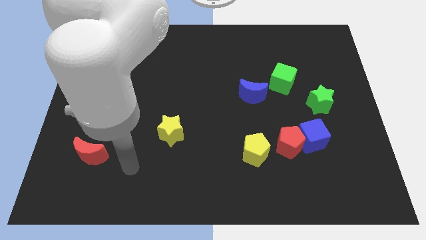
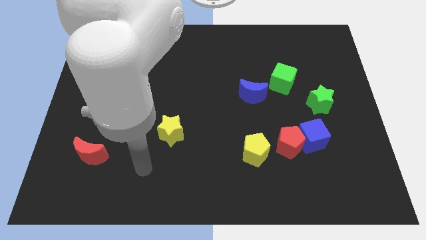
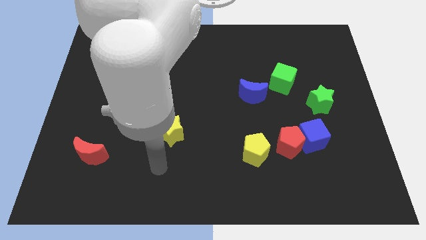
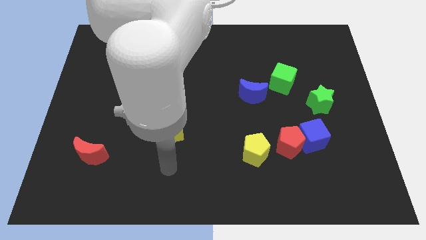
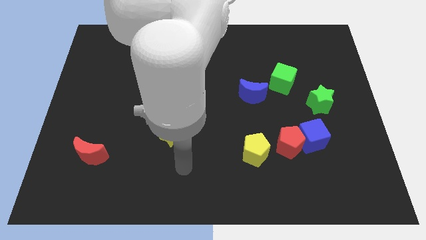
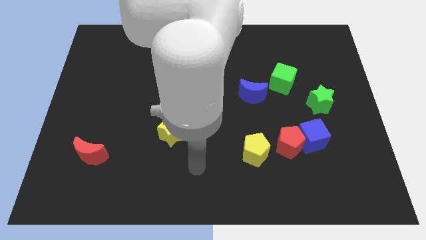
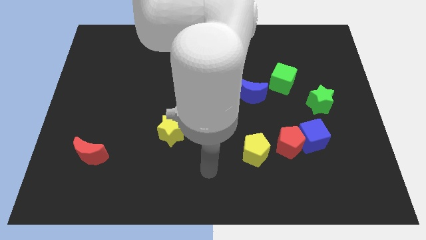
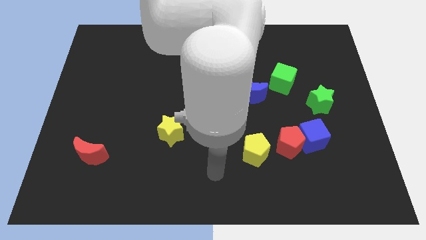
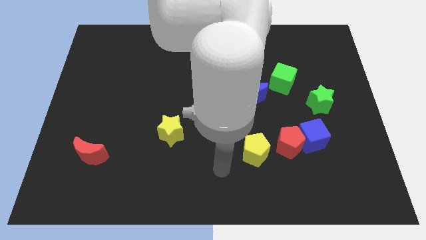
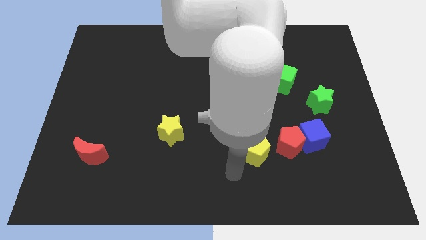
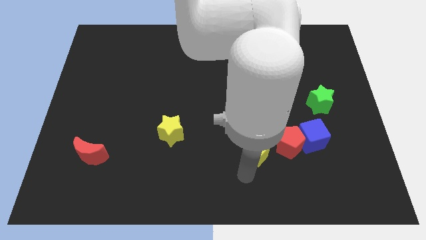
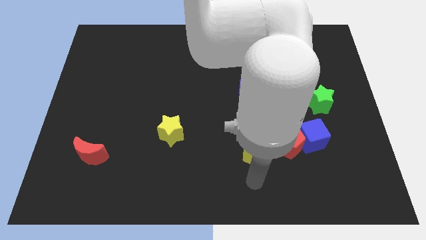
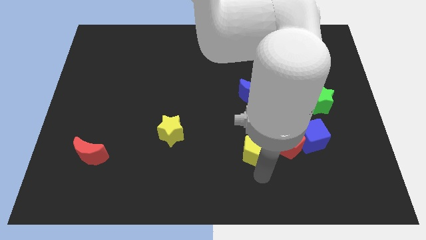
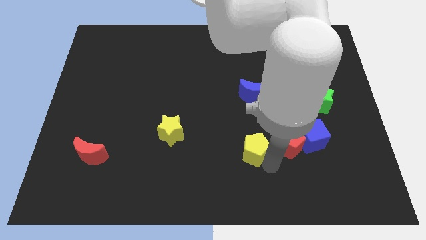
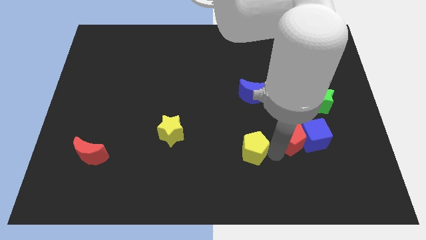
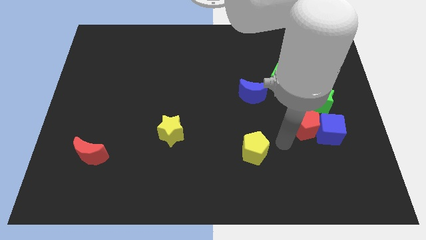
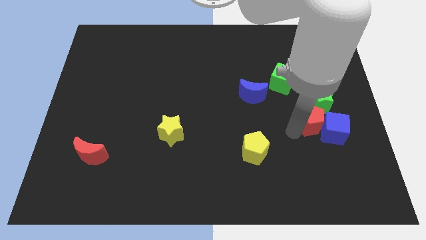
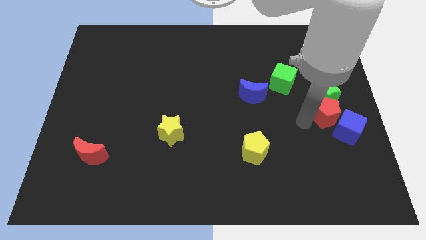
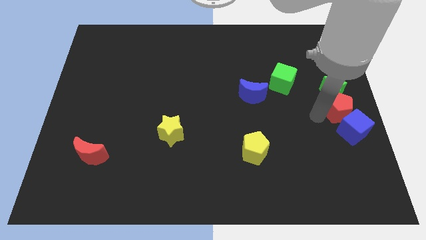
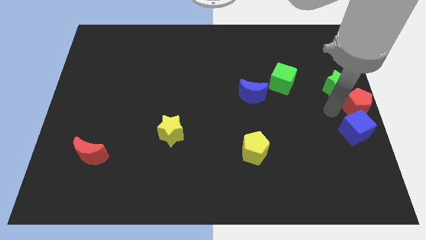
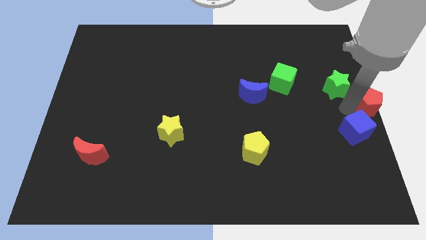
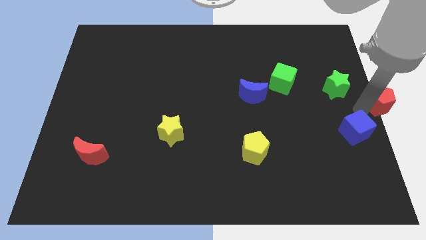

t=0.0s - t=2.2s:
pull the blue cube apart from the red pentagon

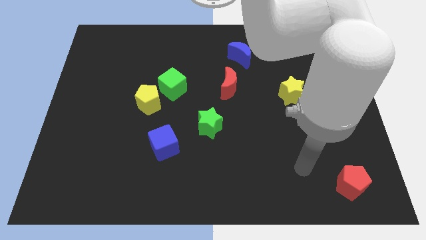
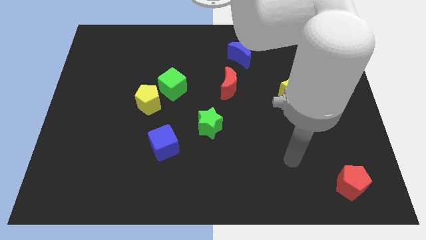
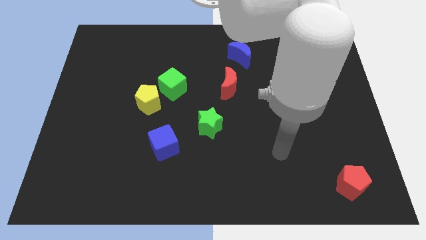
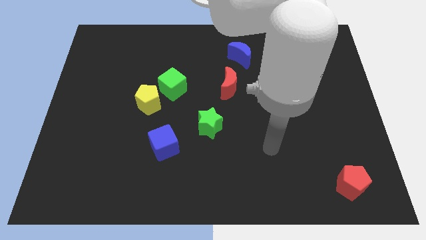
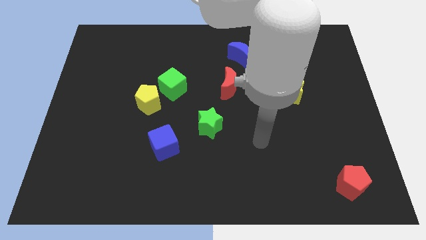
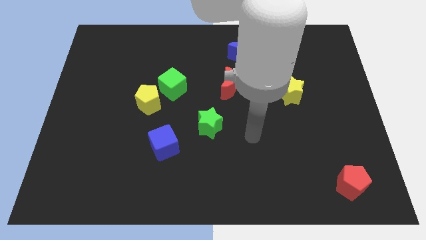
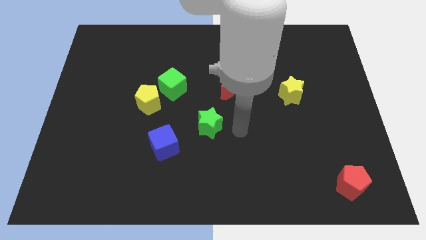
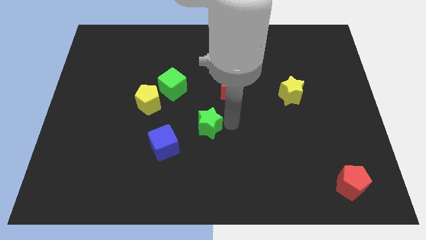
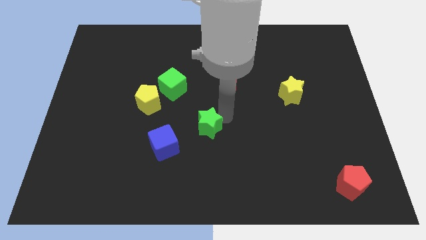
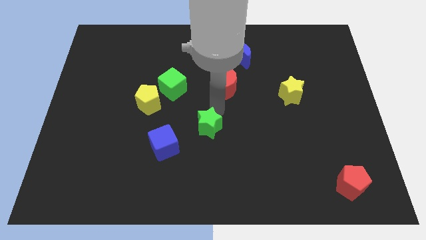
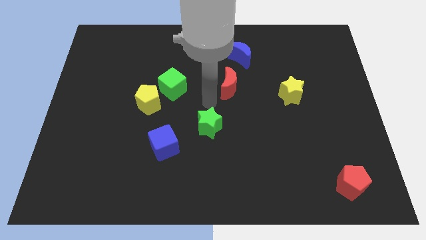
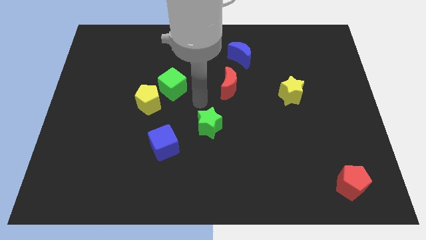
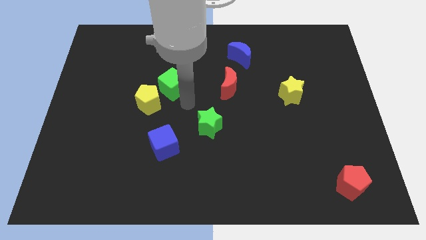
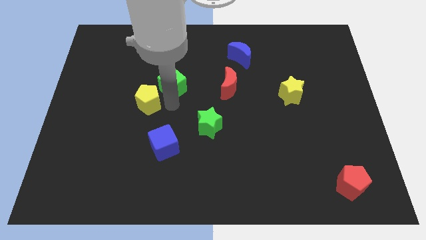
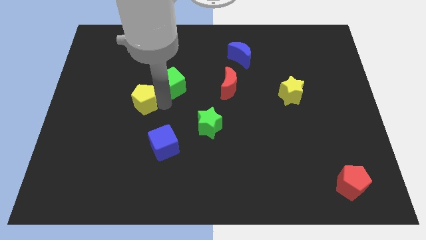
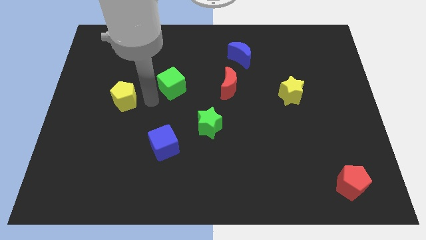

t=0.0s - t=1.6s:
move the green cube away from the yellow pentagon

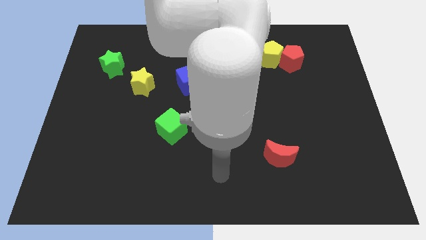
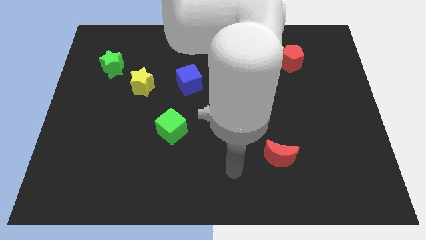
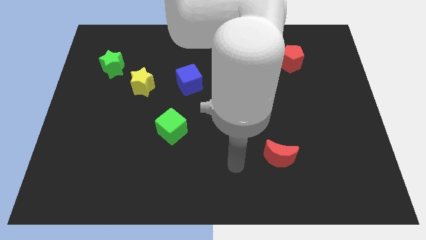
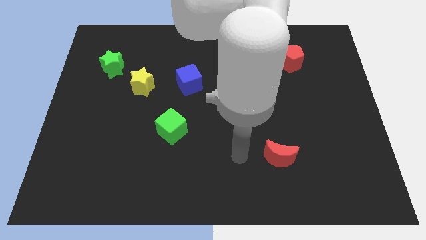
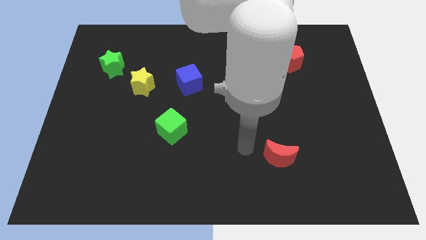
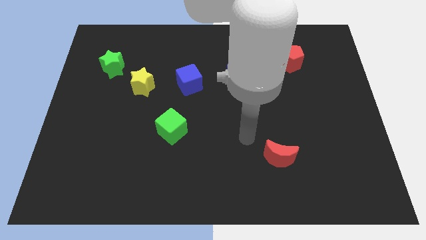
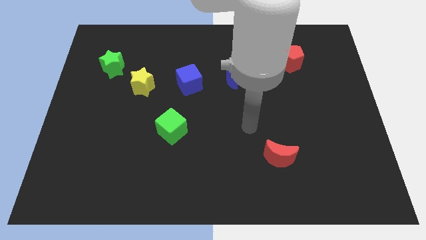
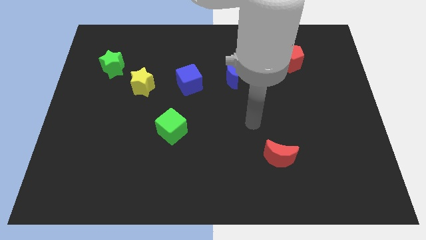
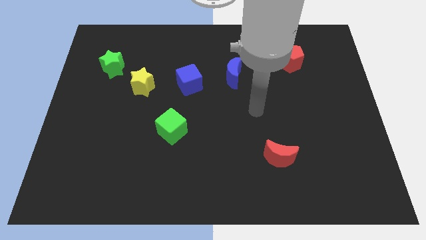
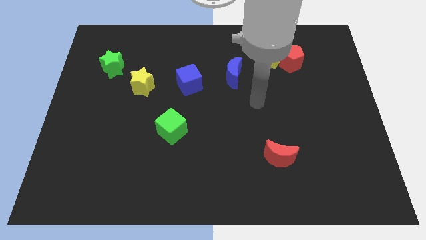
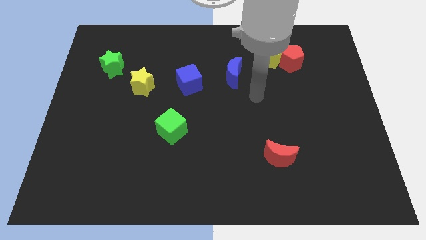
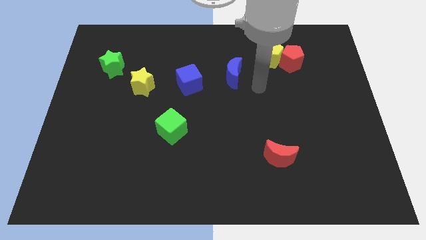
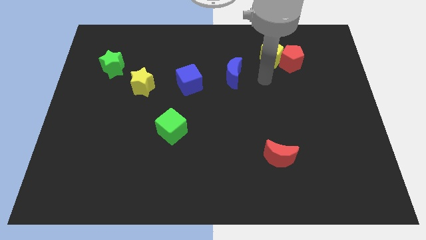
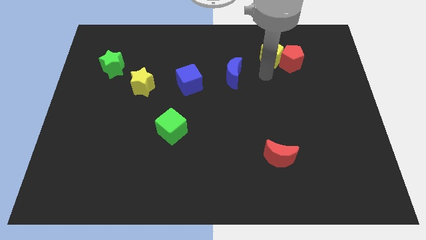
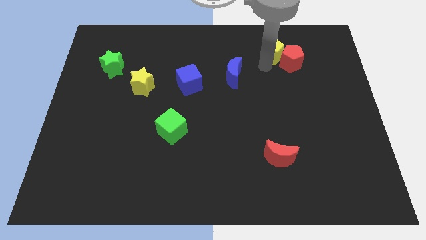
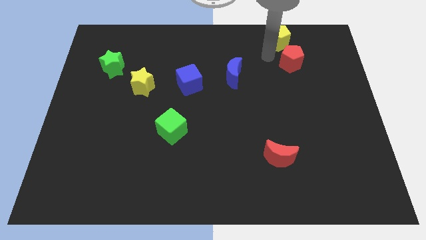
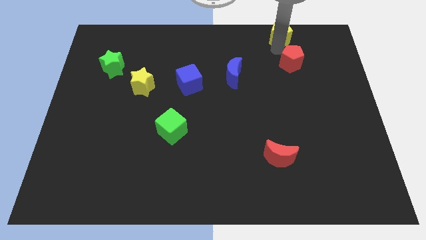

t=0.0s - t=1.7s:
pull the red pentagon apart from the yellow pentagon

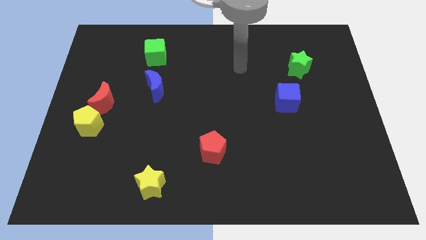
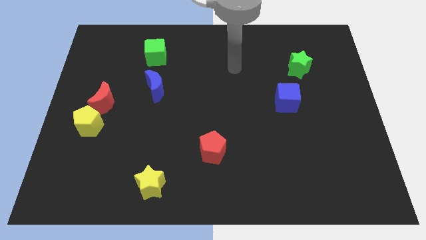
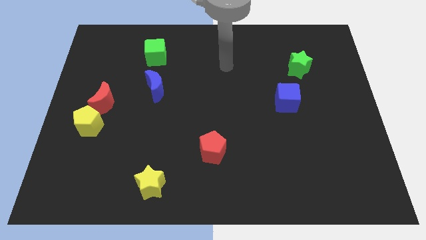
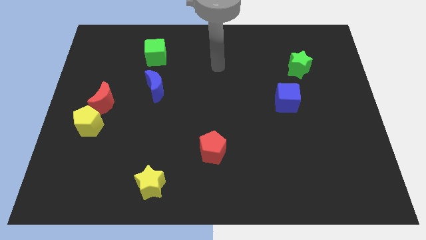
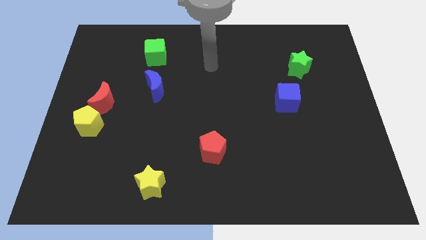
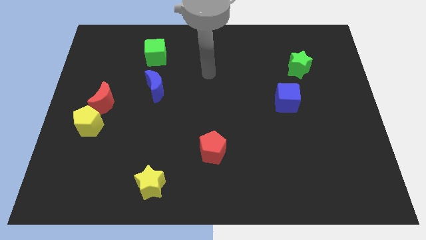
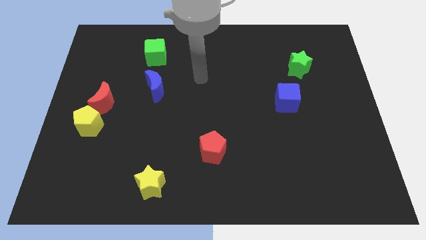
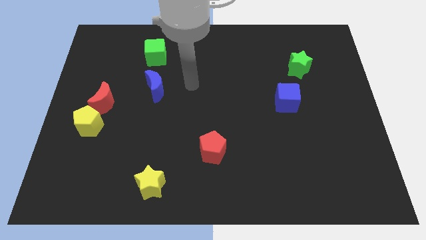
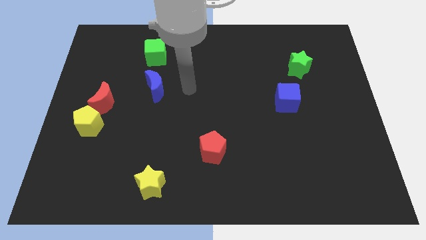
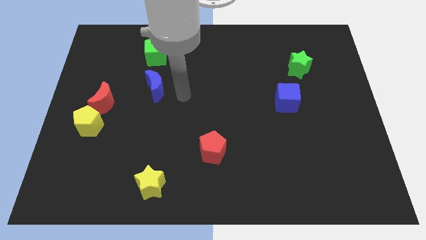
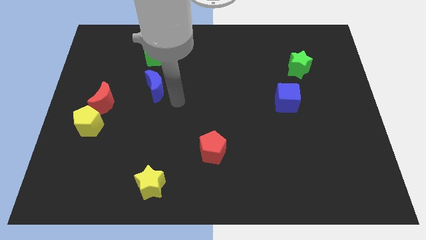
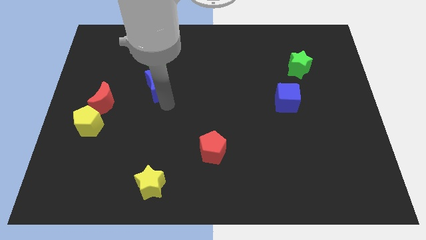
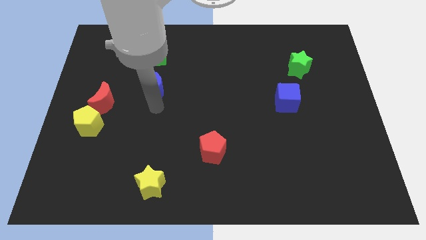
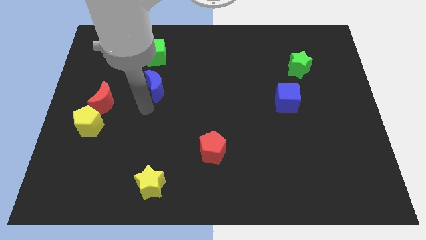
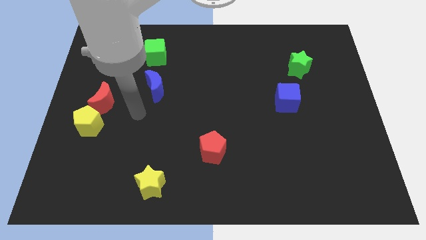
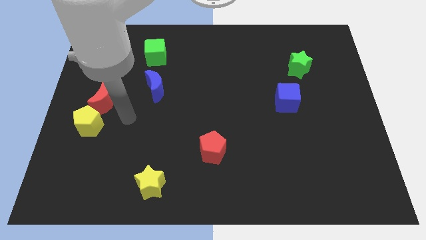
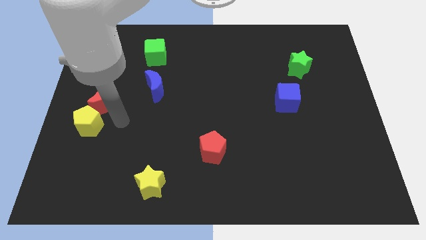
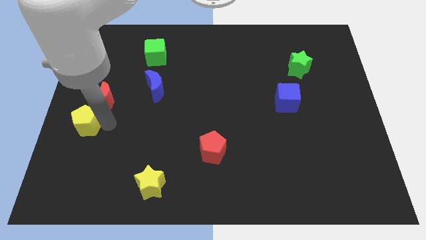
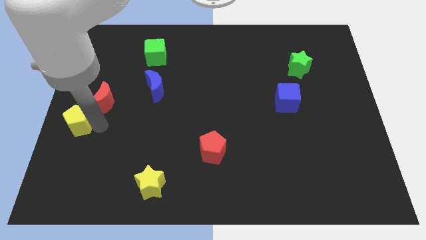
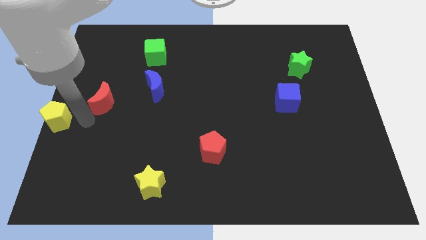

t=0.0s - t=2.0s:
pull the red moon apart from the yellow pentagon

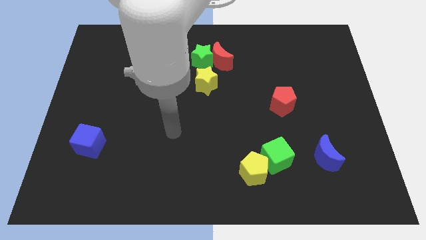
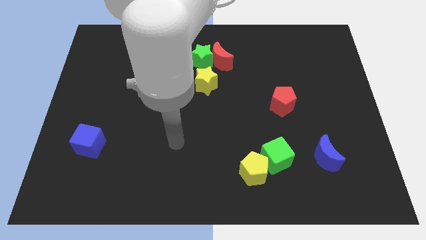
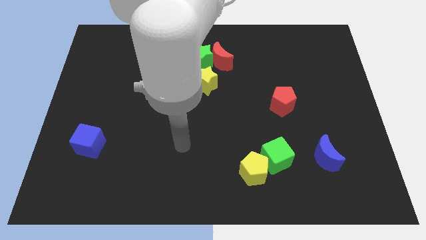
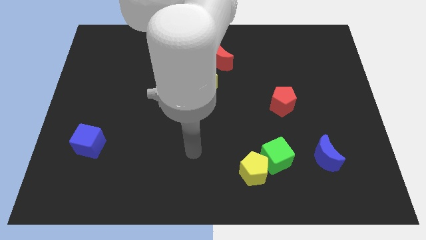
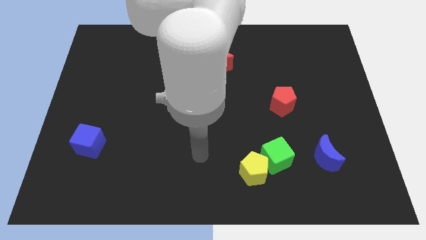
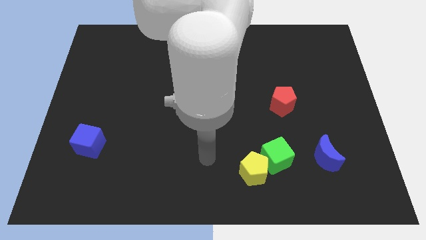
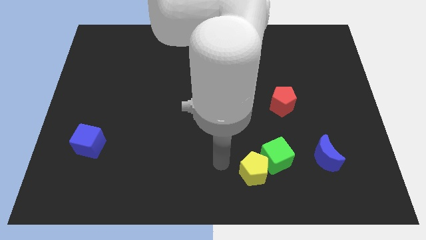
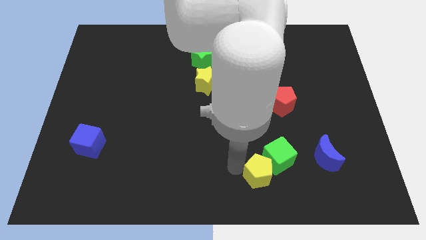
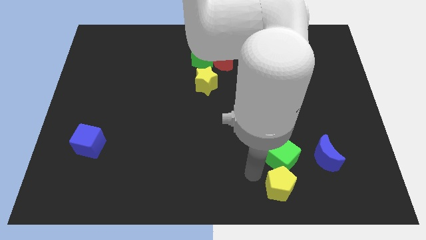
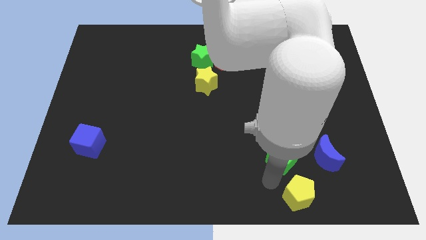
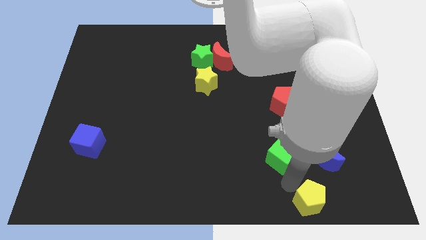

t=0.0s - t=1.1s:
pull the green cube apart from the yellow pentagon

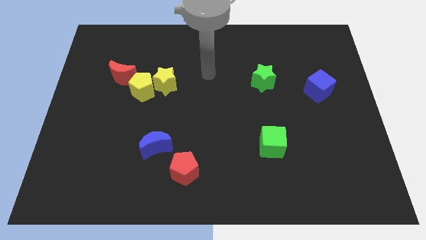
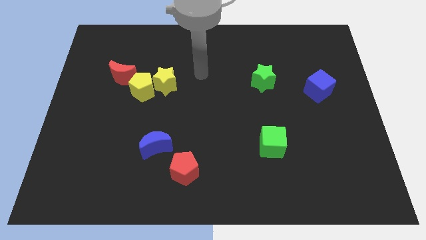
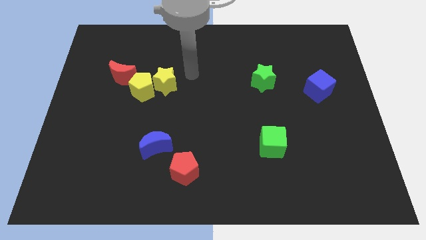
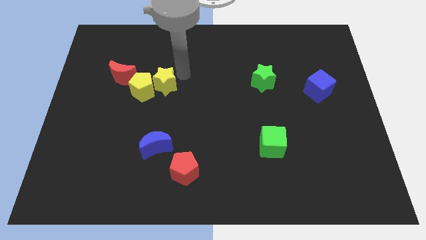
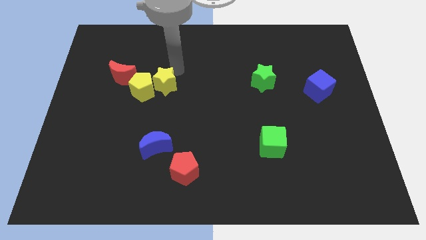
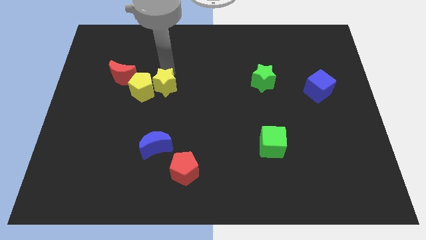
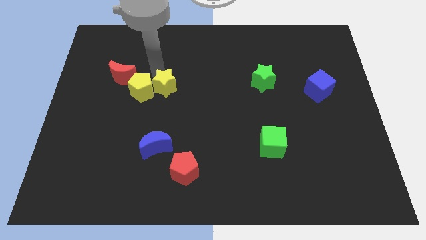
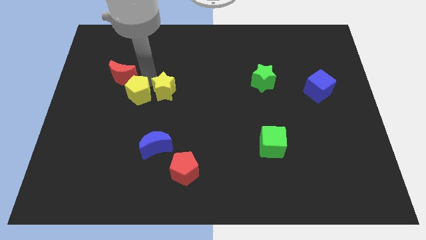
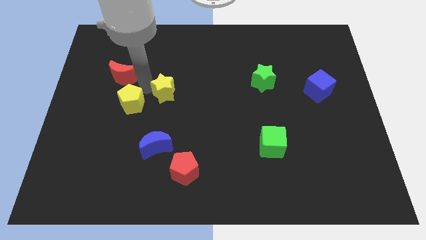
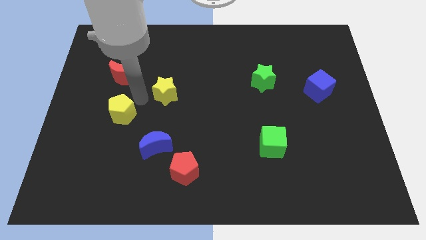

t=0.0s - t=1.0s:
move the yellow star away from the yellow pentagon
